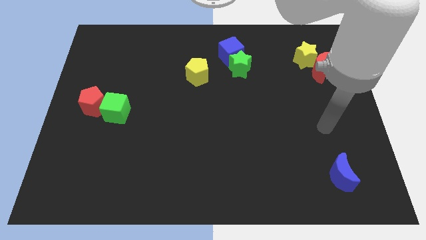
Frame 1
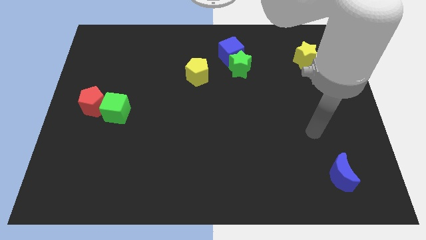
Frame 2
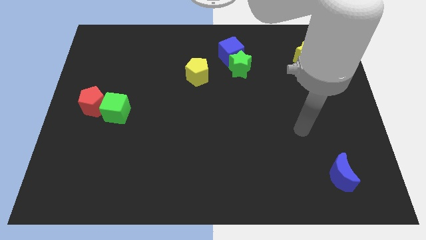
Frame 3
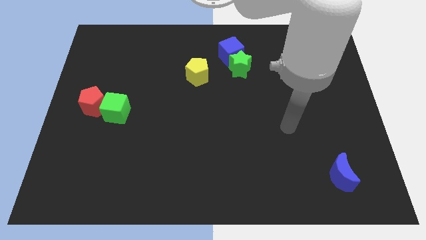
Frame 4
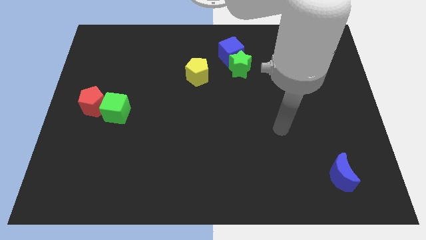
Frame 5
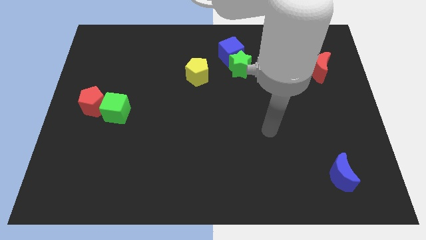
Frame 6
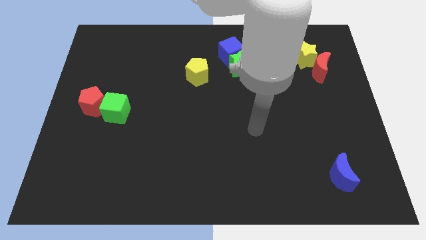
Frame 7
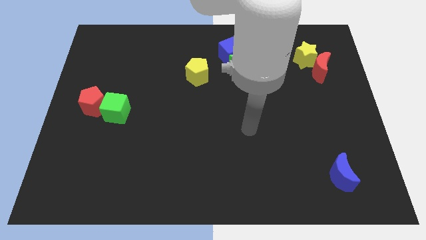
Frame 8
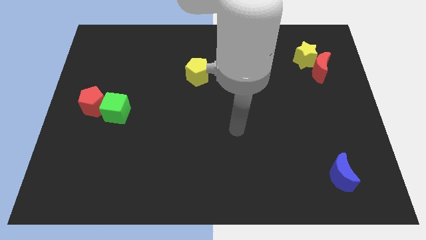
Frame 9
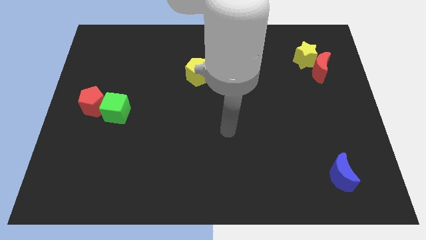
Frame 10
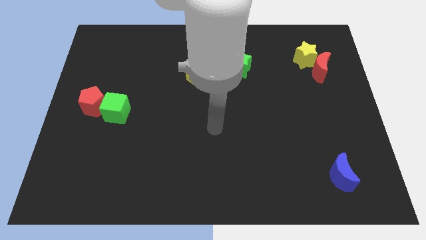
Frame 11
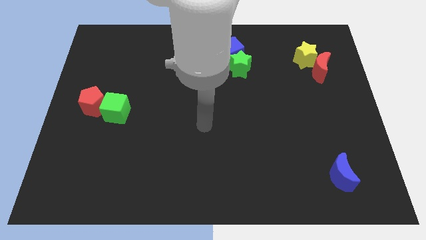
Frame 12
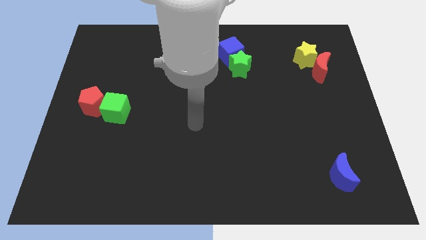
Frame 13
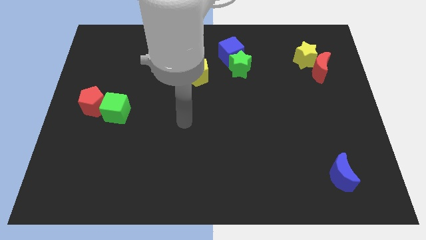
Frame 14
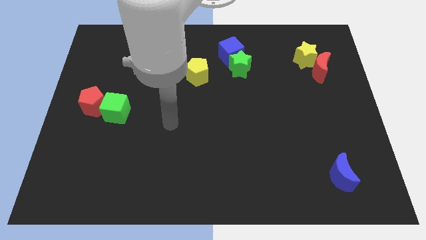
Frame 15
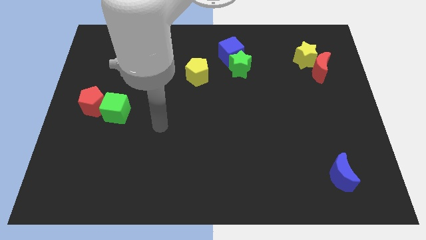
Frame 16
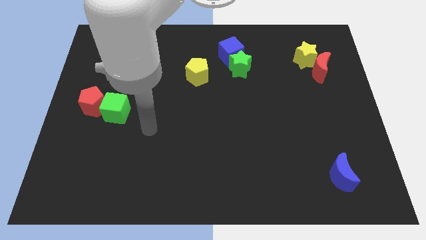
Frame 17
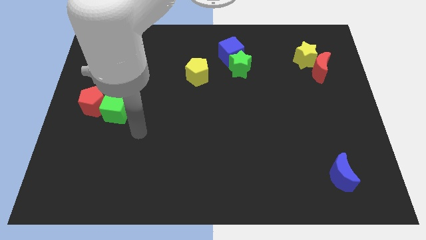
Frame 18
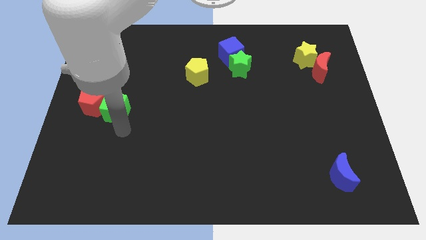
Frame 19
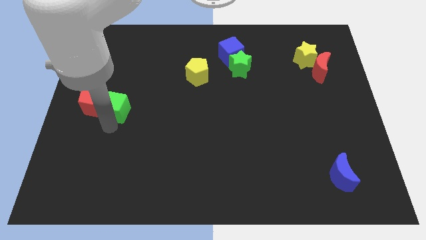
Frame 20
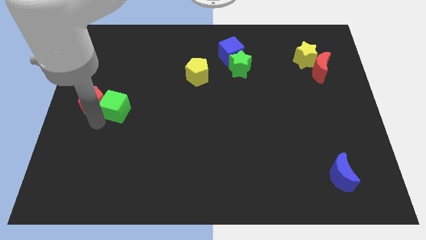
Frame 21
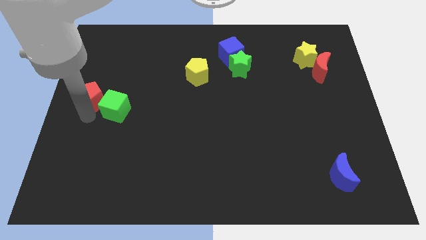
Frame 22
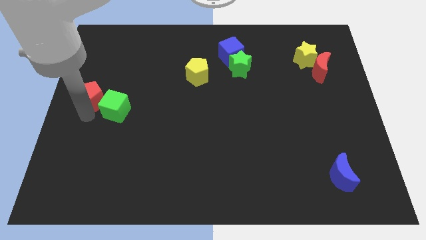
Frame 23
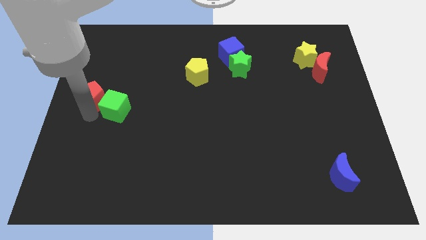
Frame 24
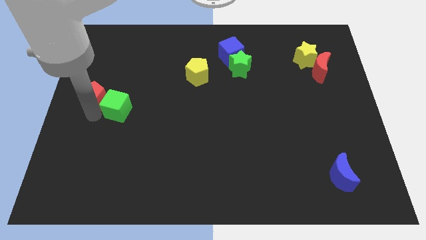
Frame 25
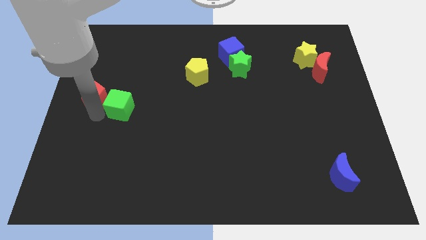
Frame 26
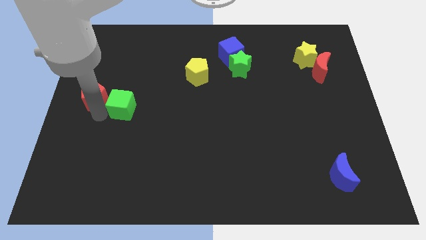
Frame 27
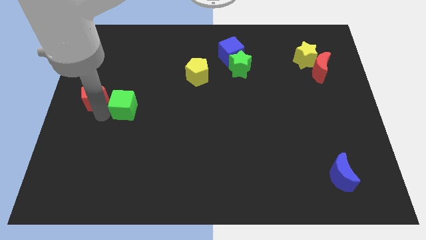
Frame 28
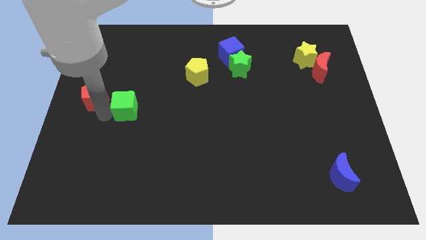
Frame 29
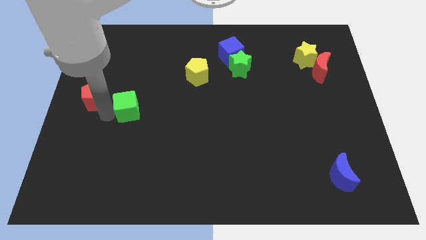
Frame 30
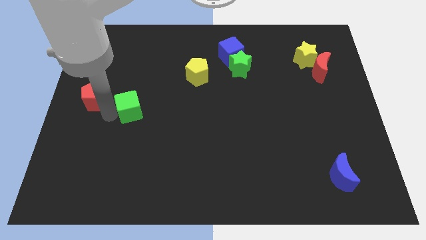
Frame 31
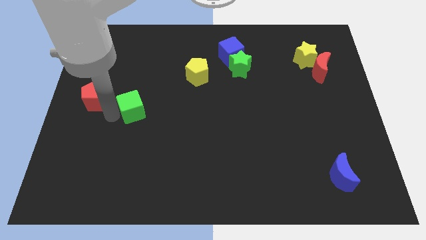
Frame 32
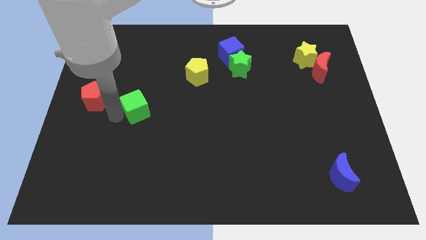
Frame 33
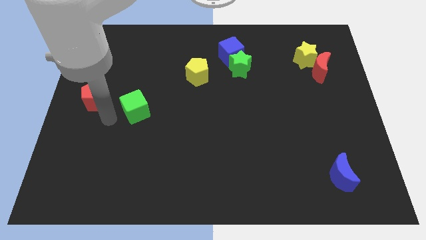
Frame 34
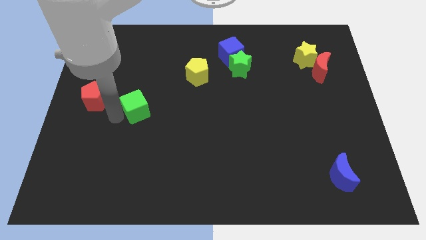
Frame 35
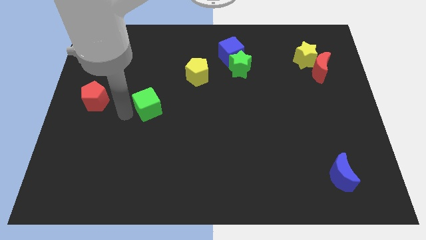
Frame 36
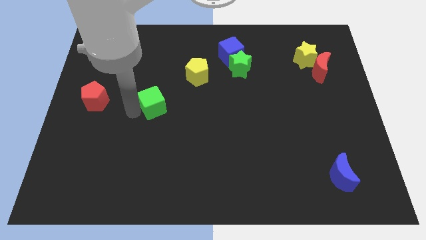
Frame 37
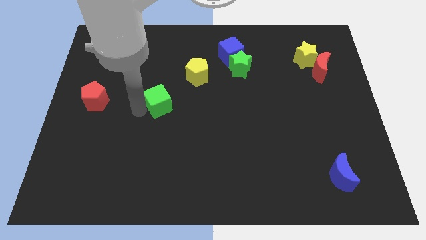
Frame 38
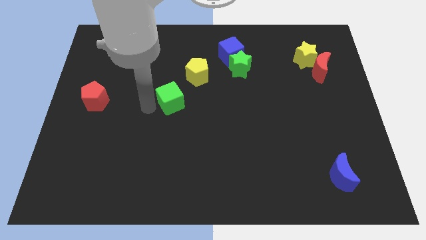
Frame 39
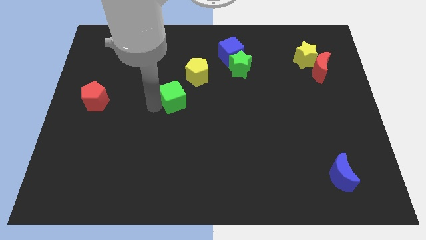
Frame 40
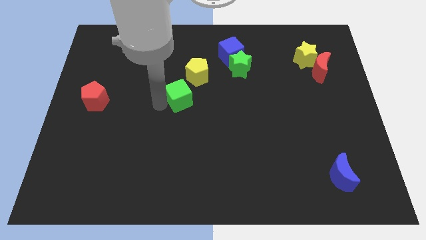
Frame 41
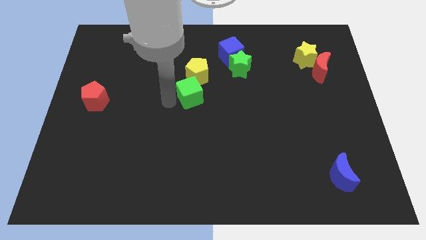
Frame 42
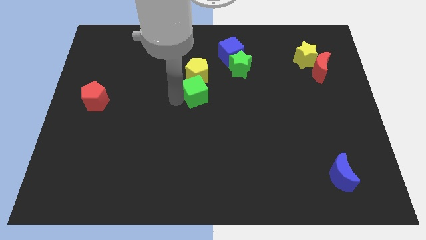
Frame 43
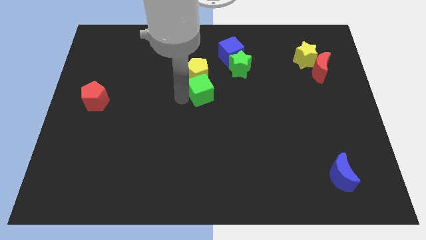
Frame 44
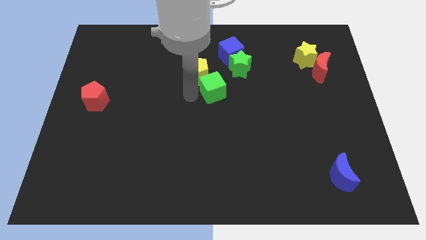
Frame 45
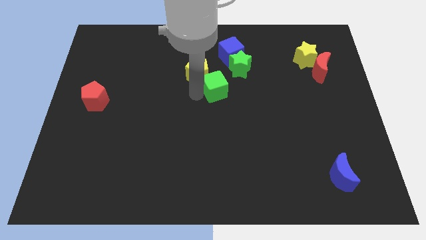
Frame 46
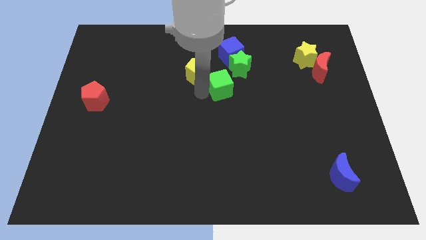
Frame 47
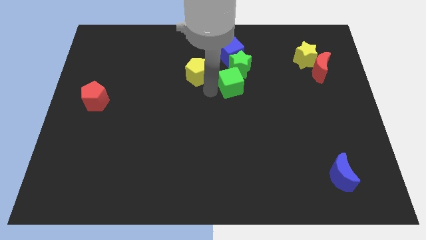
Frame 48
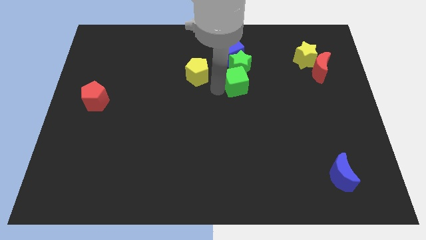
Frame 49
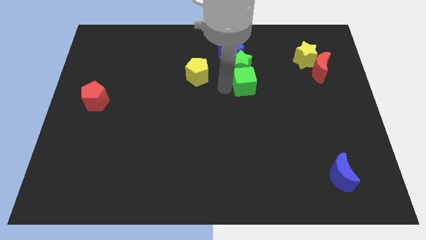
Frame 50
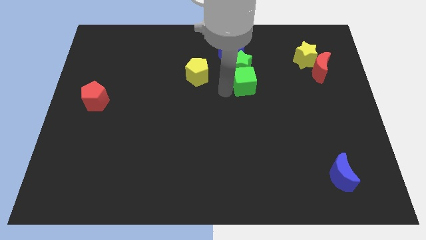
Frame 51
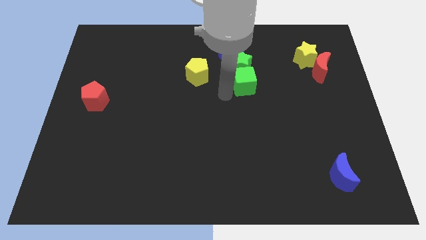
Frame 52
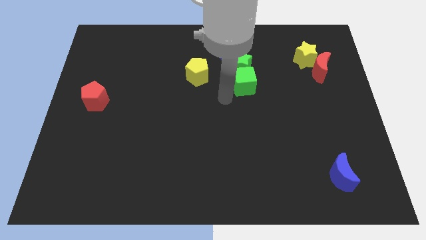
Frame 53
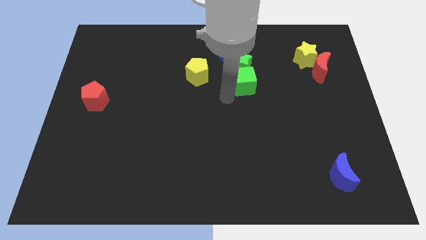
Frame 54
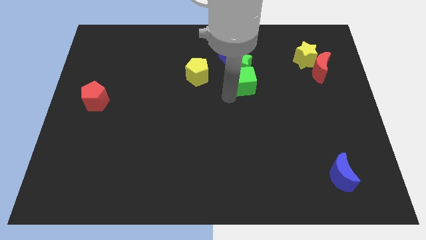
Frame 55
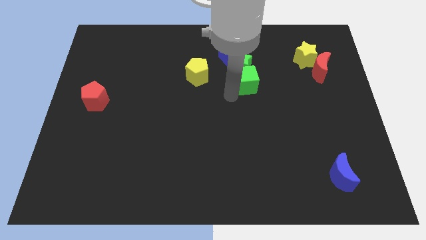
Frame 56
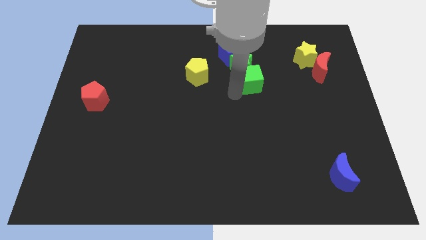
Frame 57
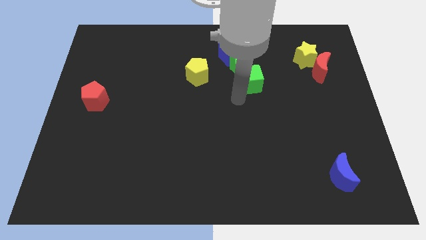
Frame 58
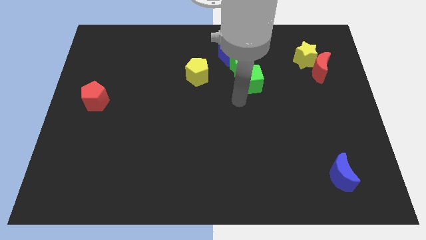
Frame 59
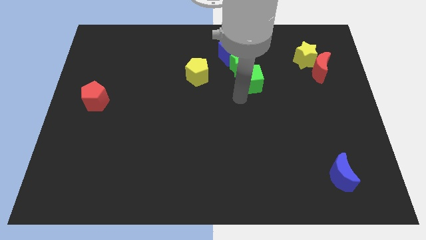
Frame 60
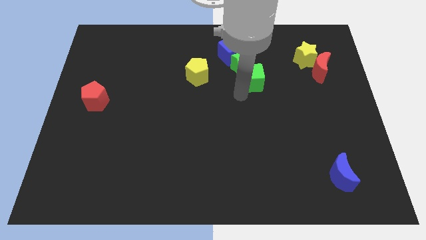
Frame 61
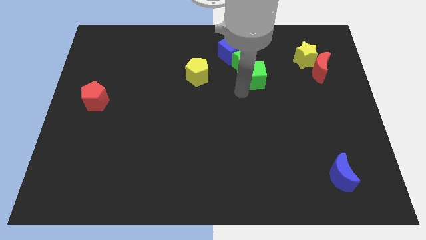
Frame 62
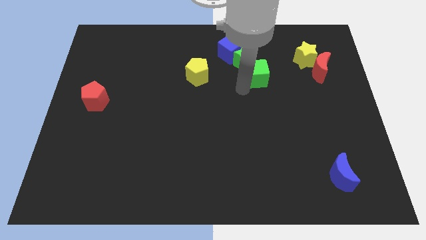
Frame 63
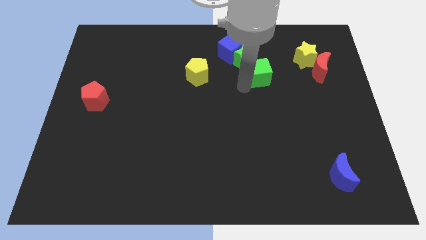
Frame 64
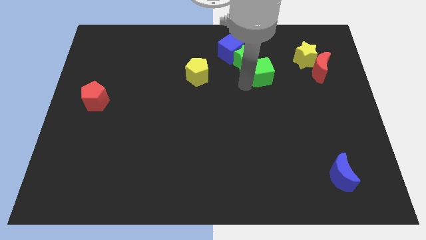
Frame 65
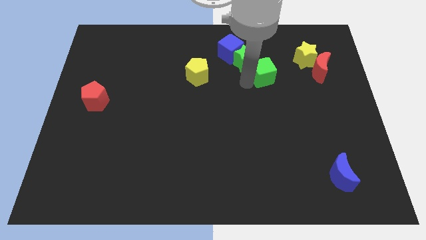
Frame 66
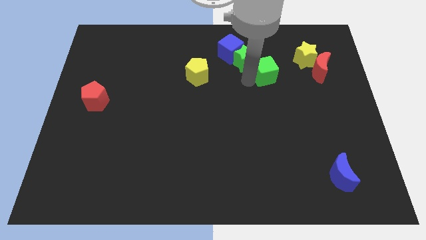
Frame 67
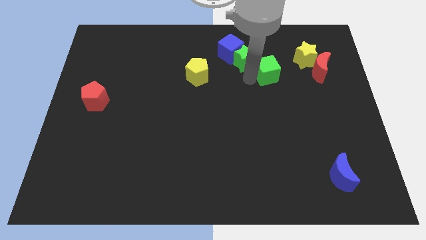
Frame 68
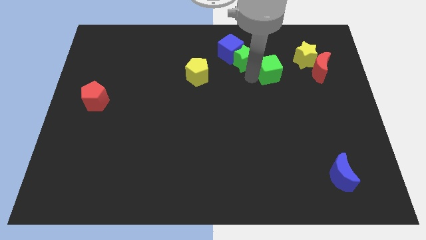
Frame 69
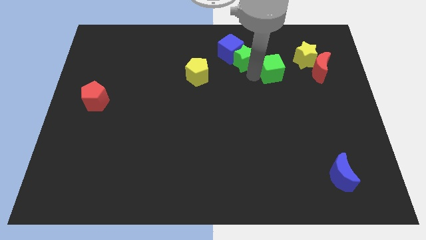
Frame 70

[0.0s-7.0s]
slide the green cube to the left side of the yellow star

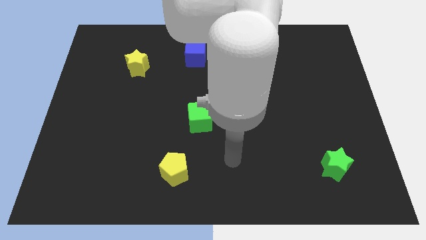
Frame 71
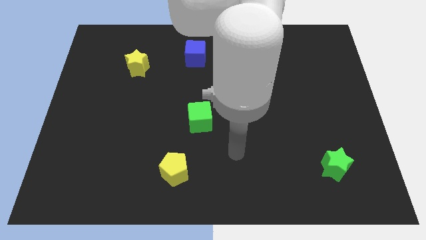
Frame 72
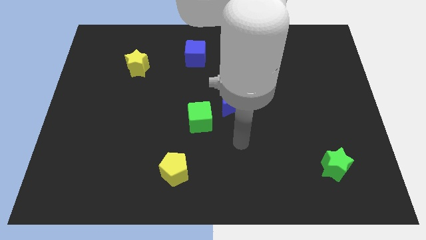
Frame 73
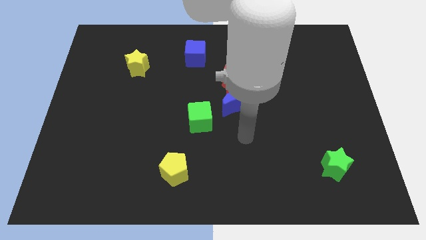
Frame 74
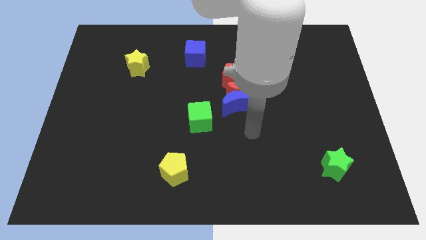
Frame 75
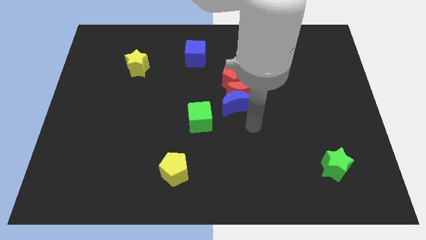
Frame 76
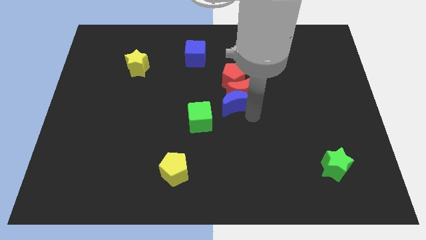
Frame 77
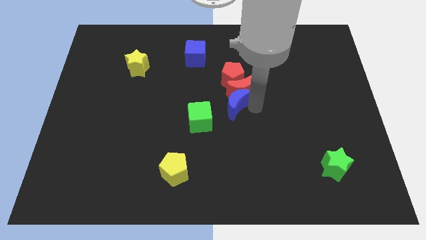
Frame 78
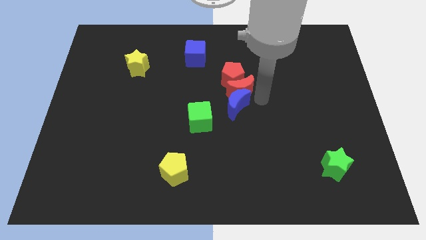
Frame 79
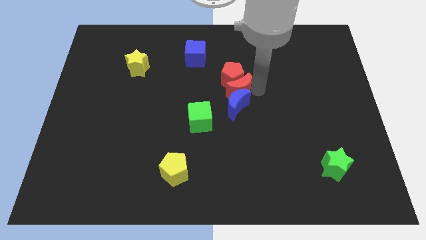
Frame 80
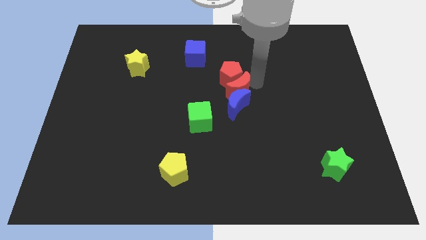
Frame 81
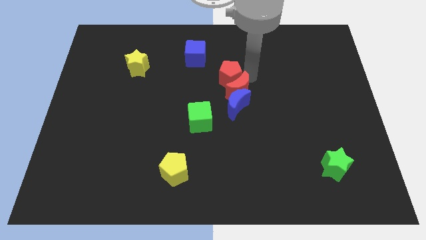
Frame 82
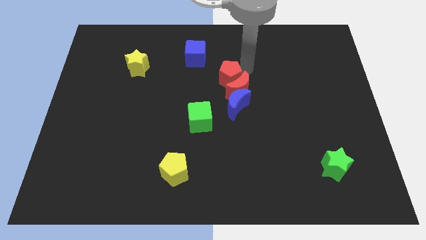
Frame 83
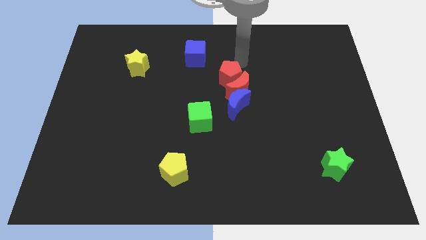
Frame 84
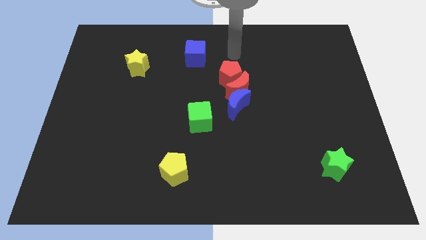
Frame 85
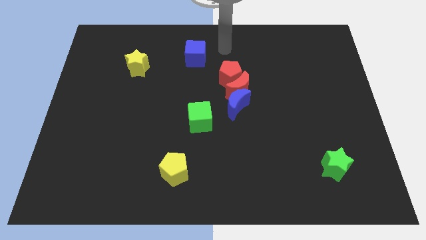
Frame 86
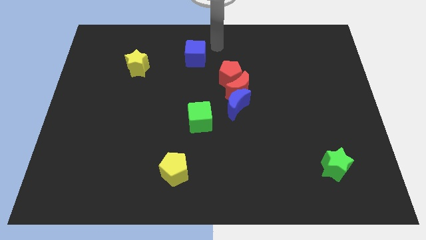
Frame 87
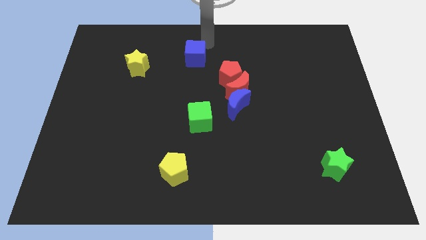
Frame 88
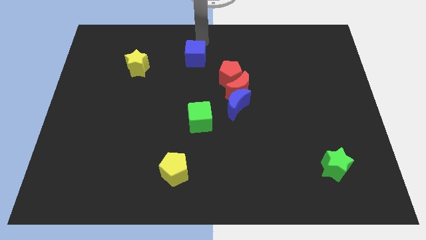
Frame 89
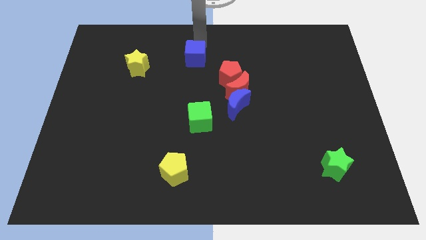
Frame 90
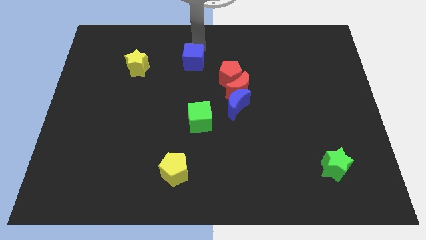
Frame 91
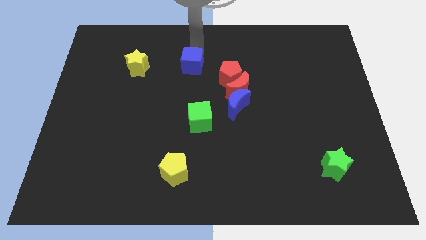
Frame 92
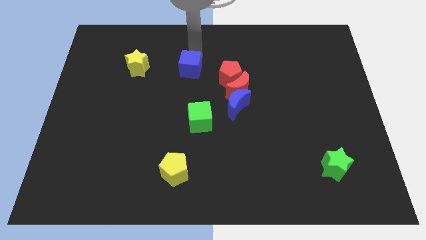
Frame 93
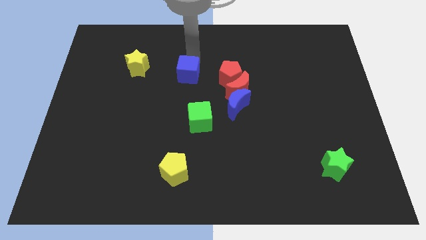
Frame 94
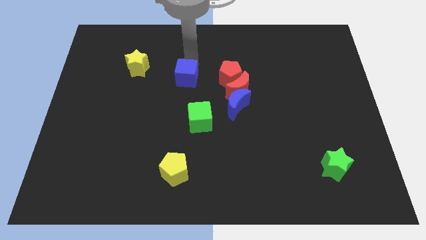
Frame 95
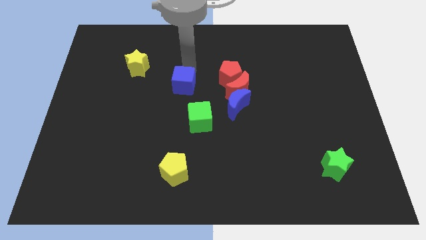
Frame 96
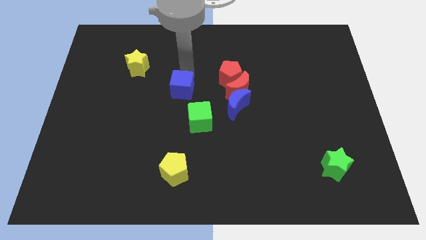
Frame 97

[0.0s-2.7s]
slide the blue cube to the top left of the green cube
